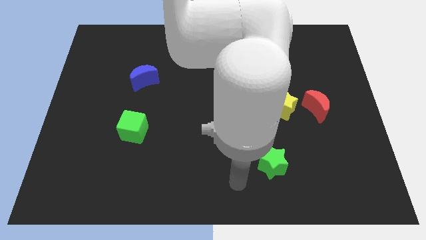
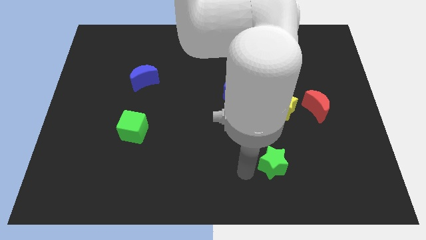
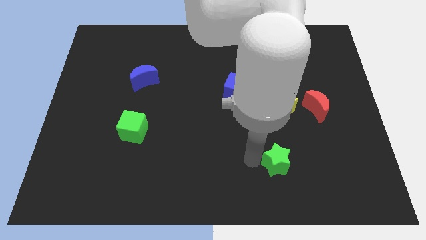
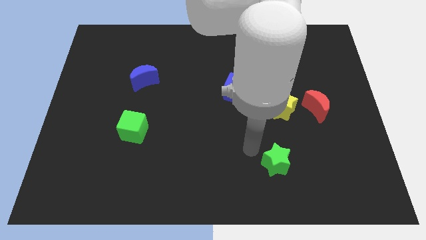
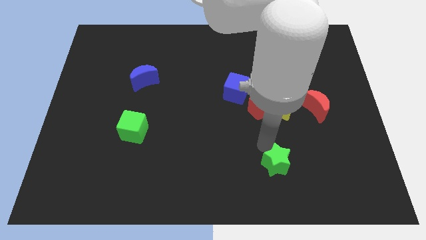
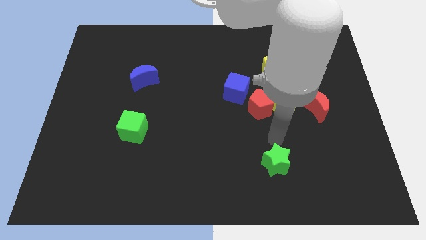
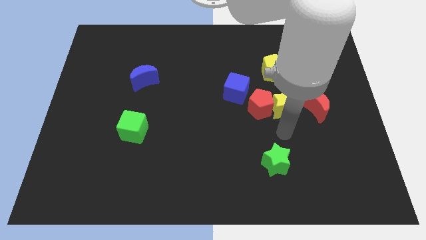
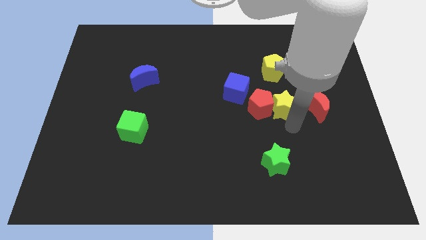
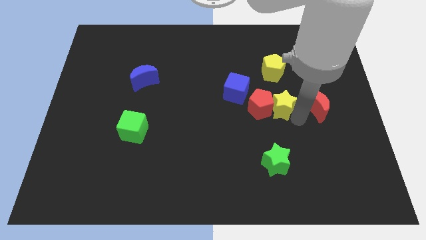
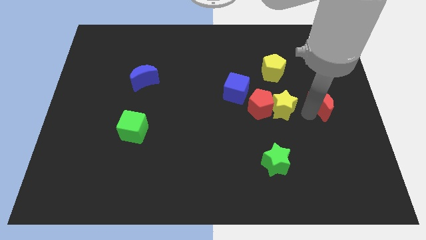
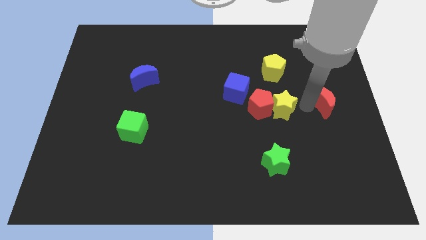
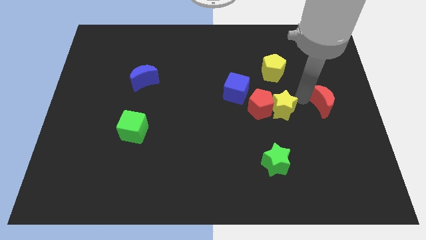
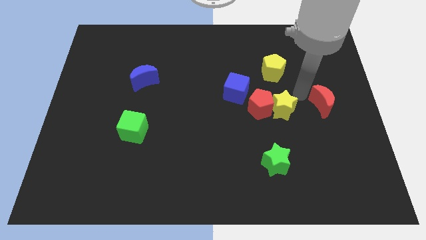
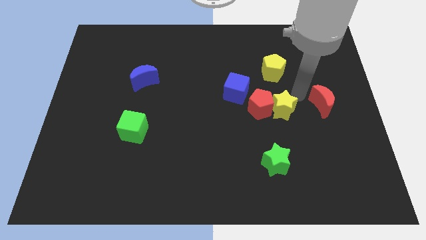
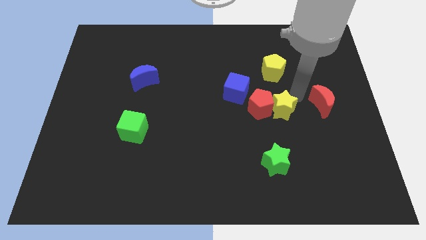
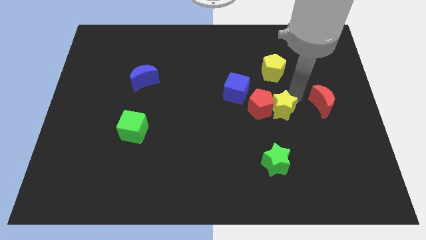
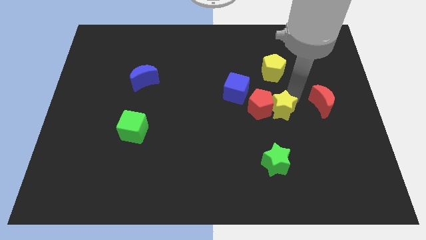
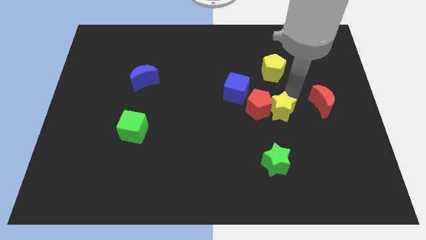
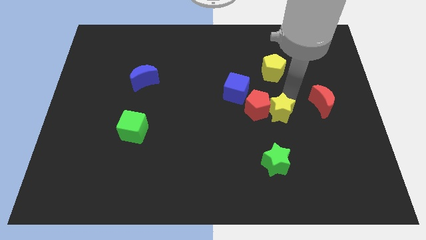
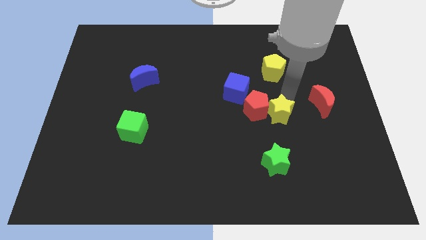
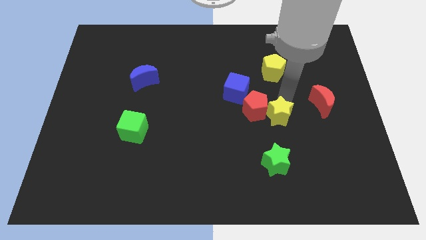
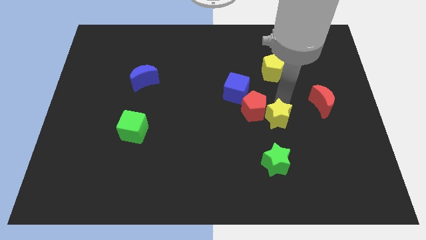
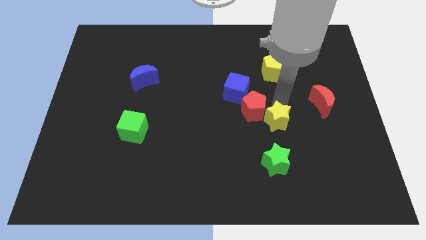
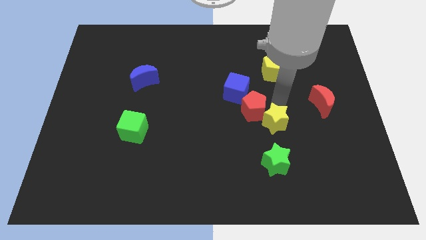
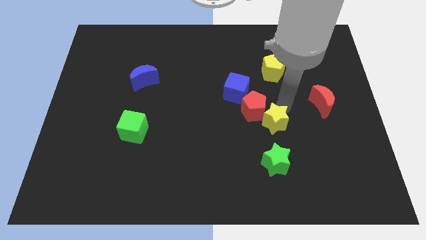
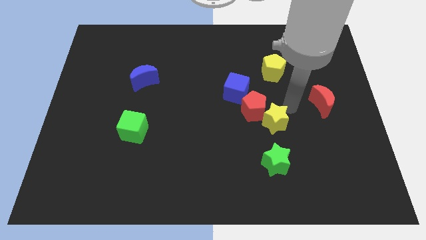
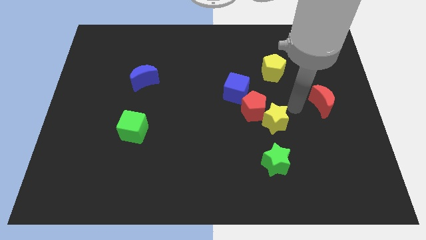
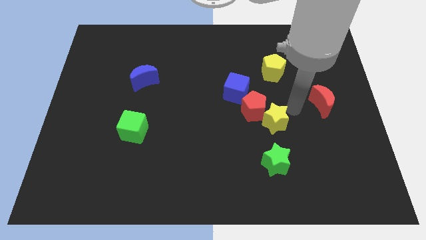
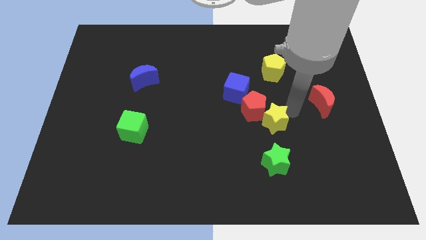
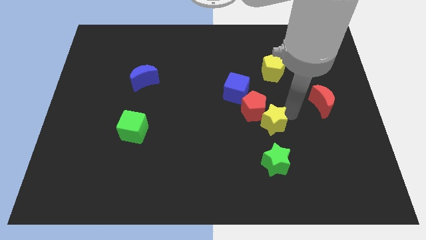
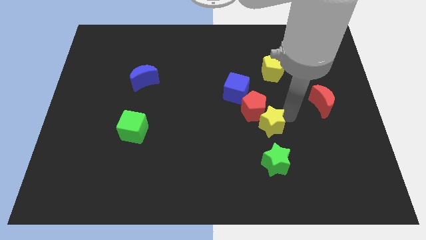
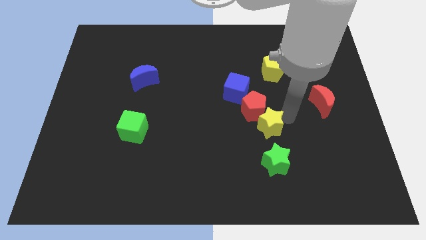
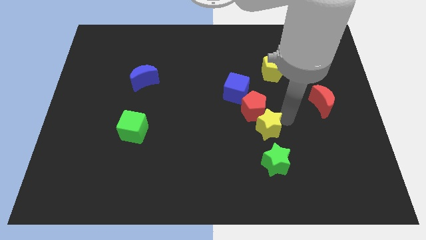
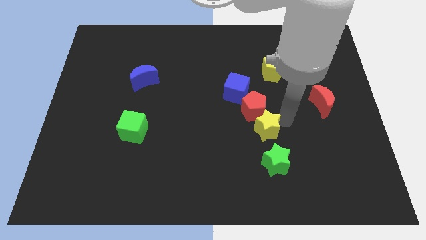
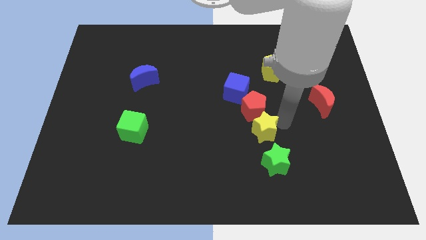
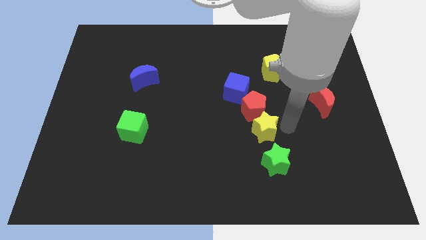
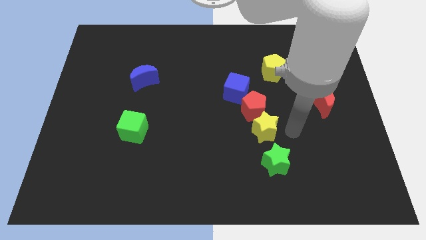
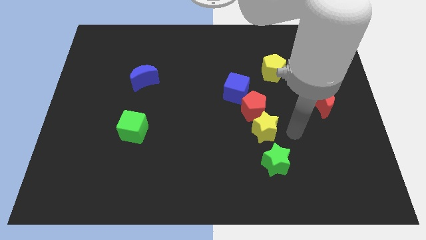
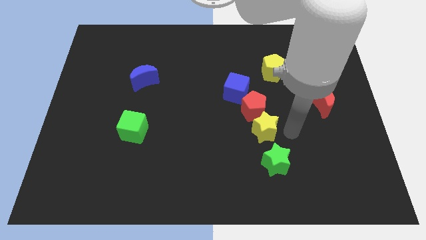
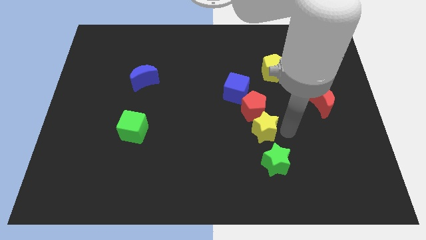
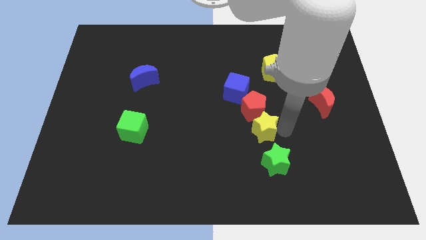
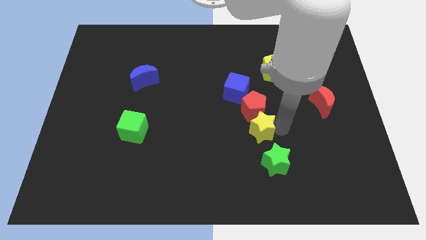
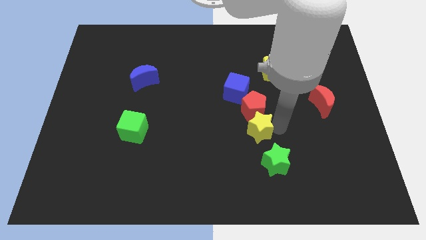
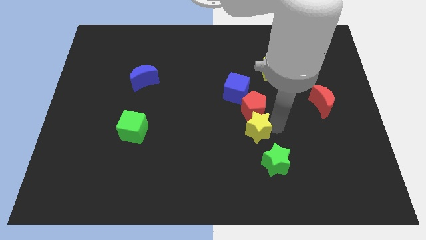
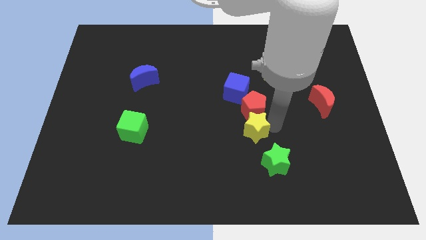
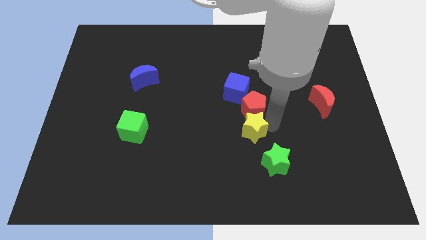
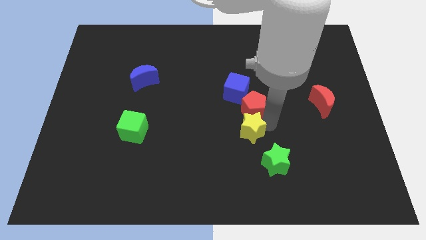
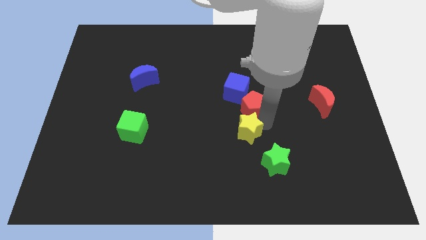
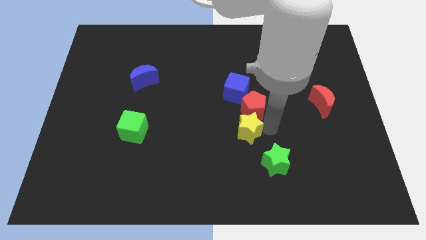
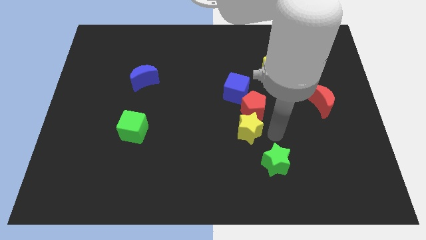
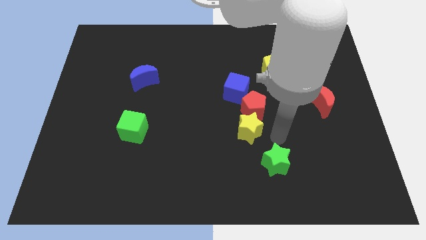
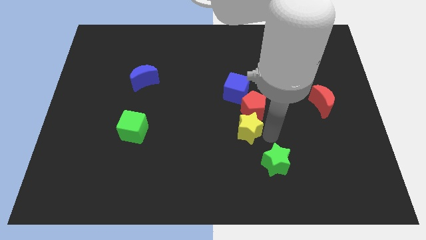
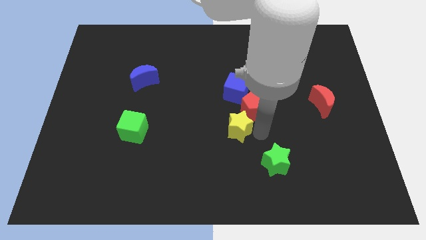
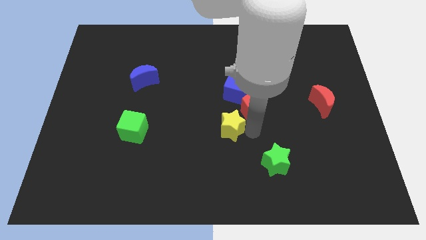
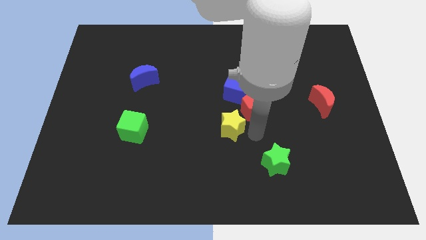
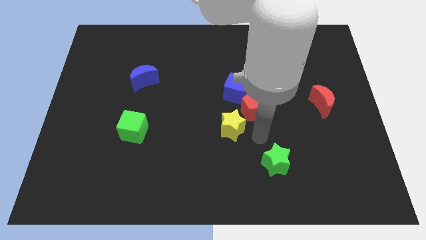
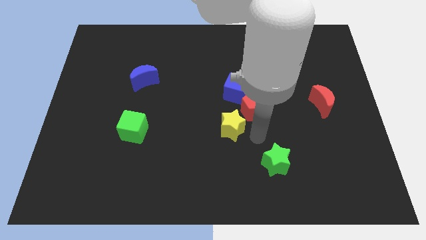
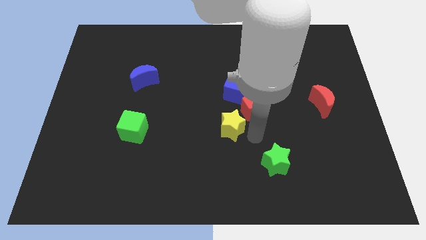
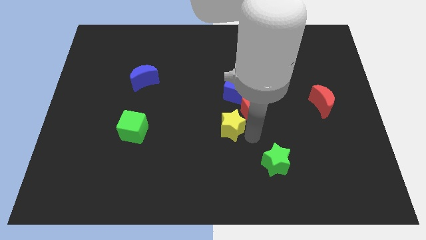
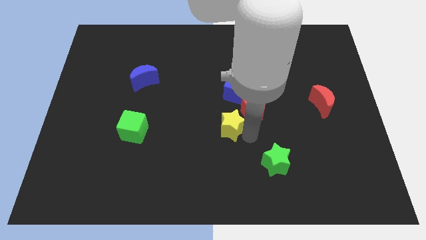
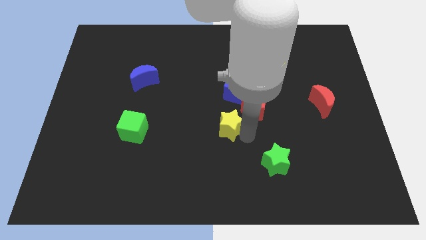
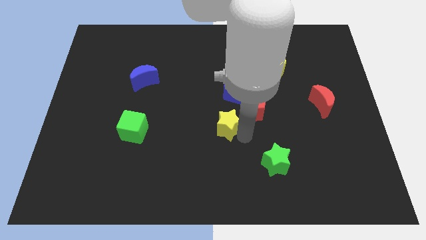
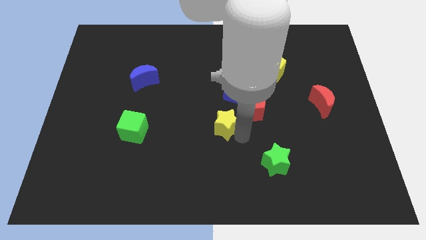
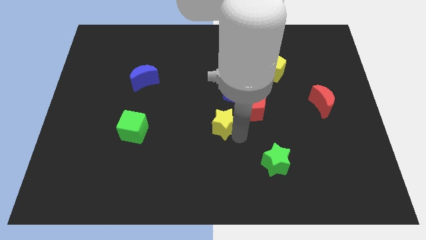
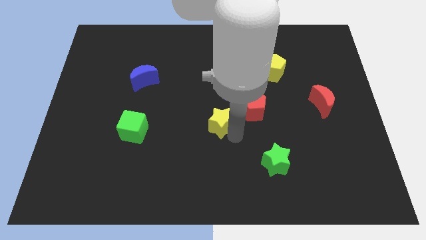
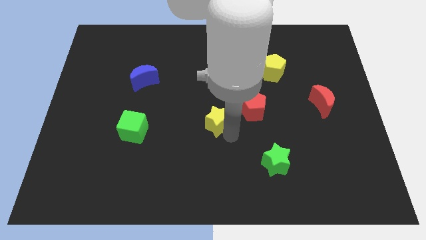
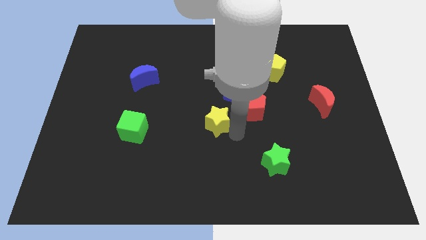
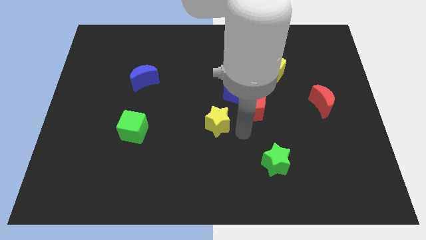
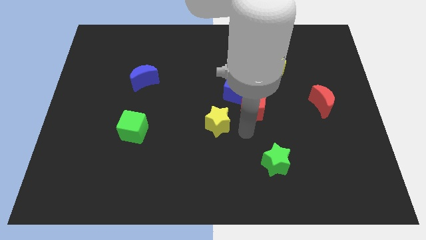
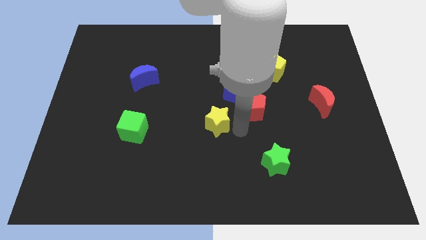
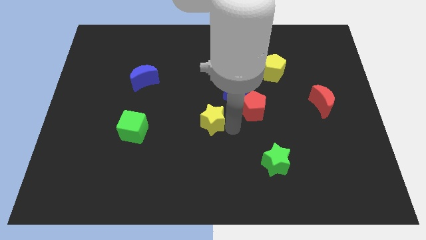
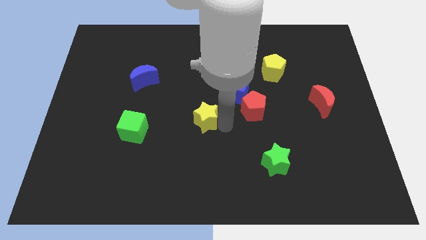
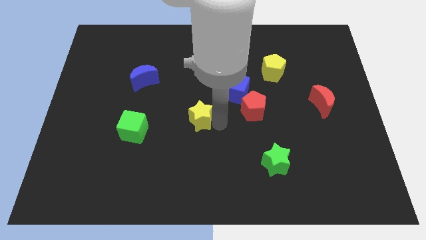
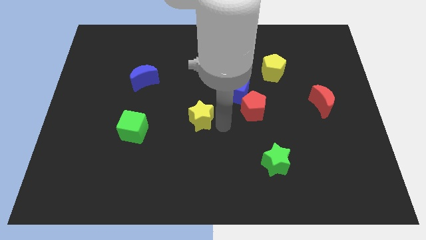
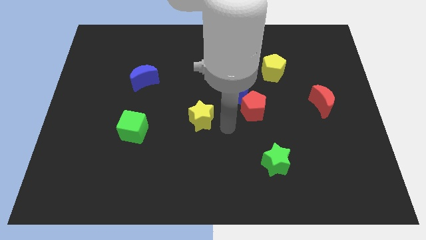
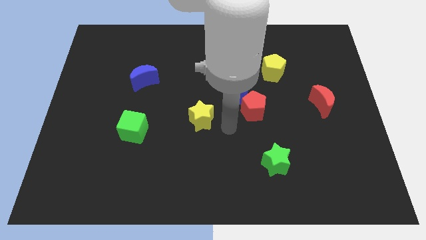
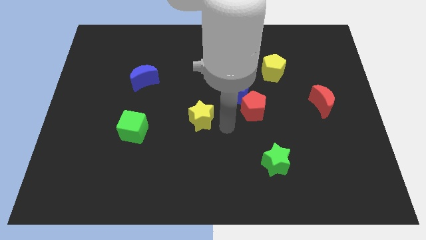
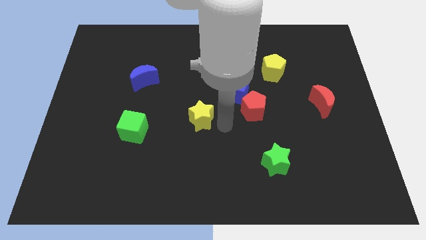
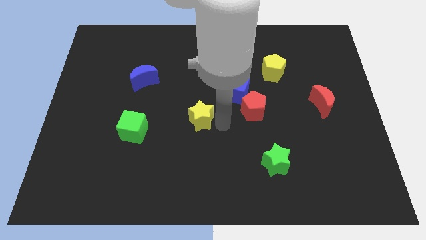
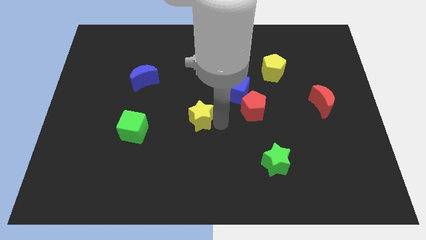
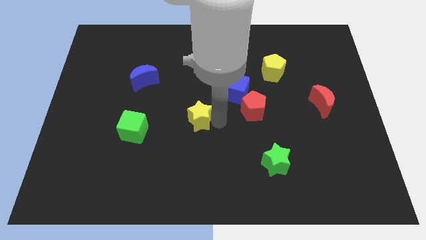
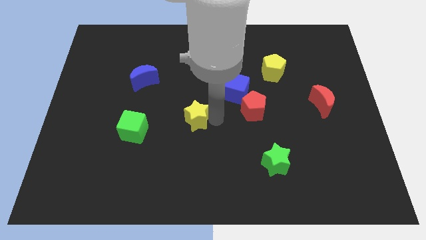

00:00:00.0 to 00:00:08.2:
slide the yellow star left
